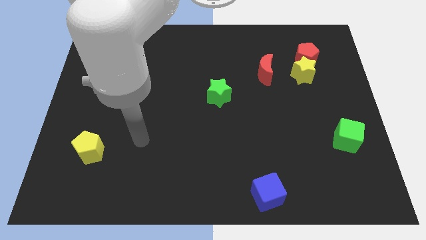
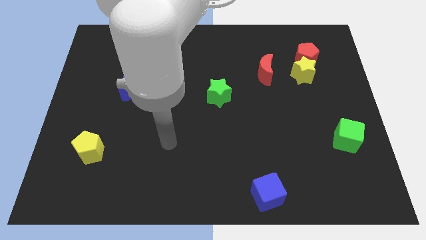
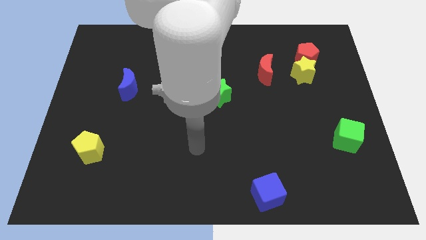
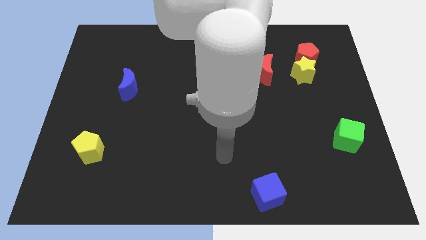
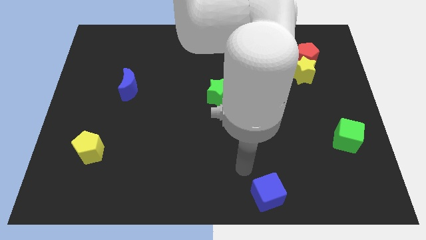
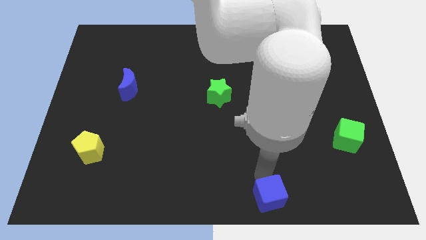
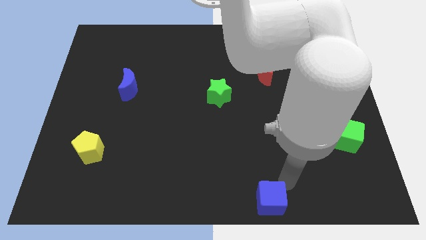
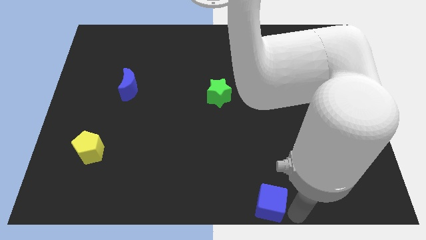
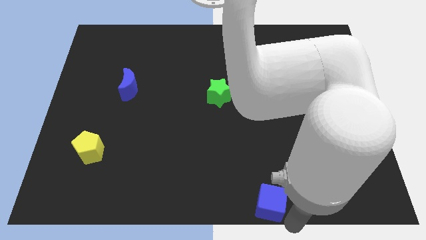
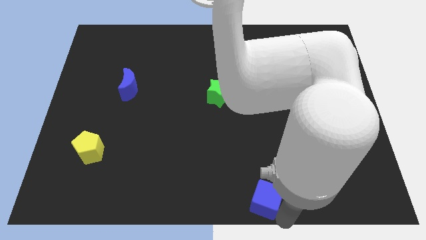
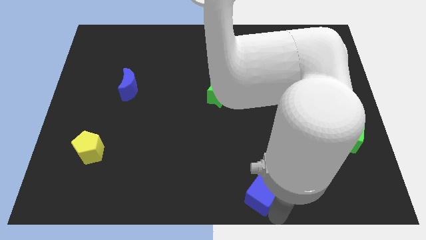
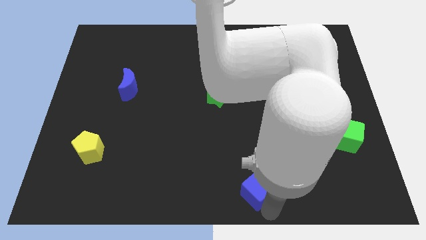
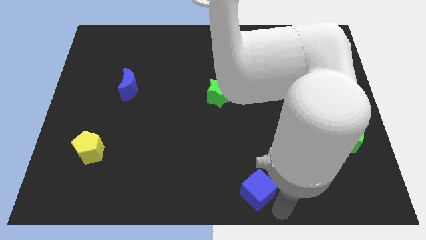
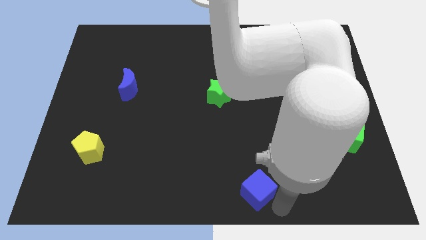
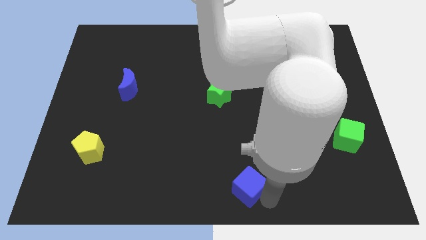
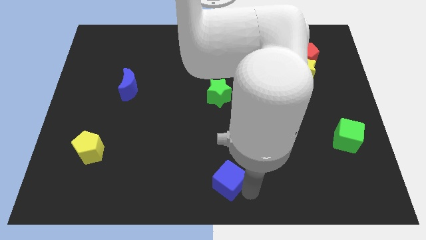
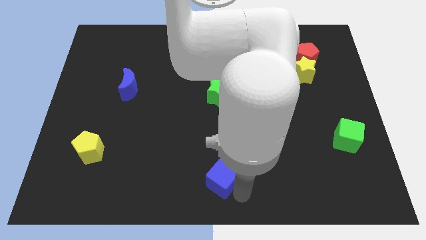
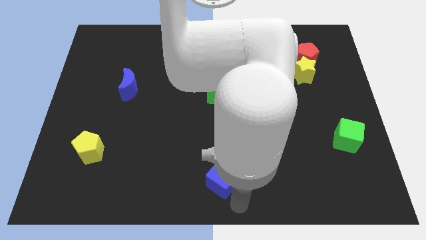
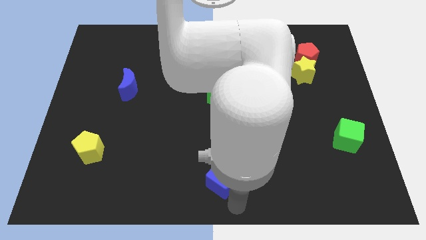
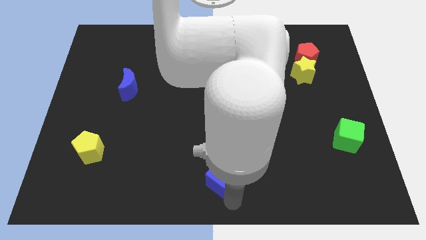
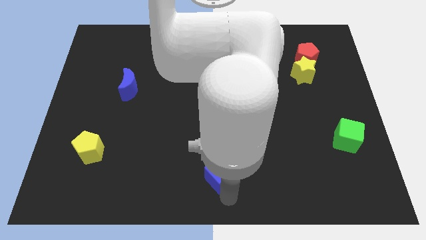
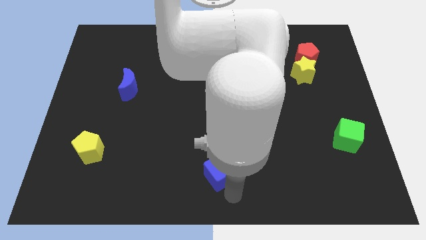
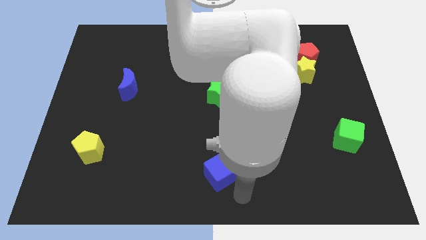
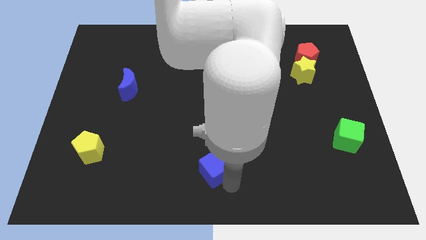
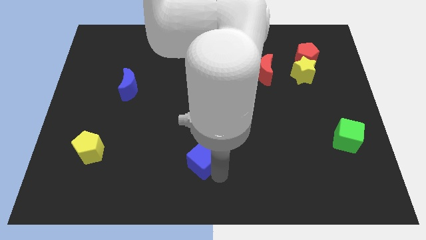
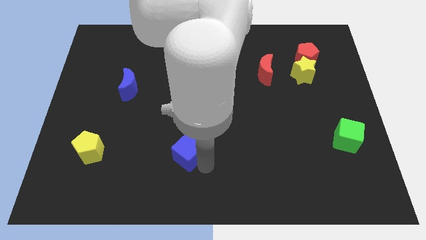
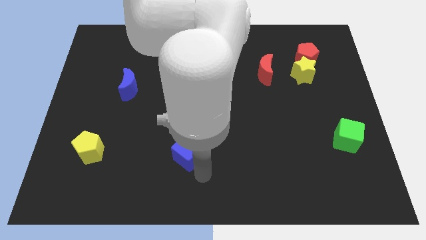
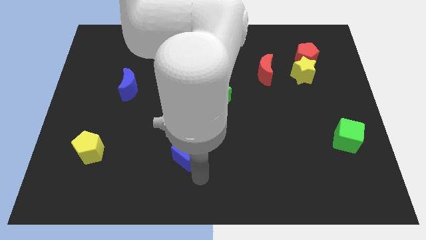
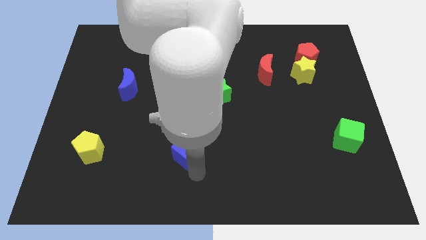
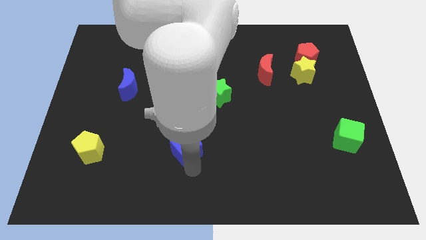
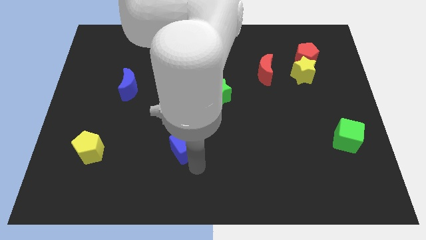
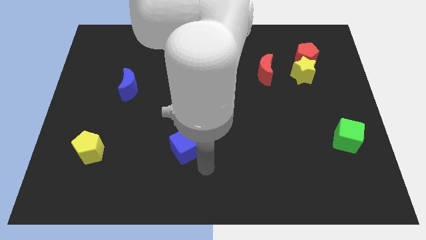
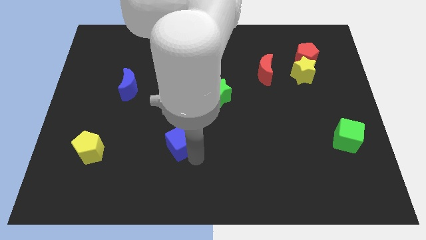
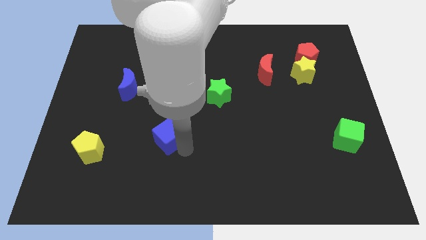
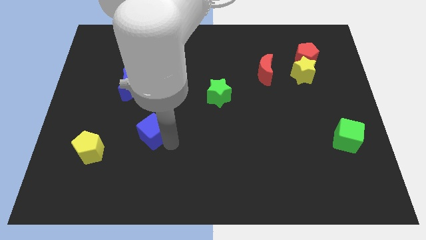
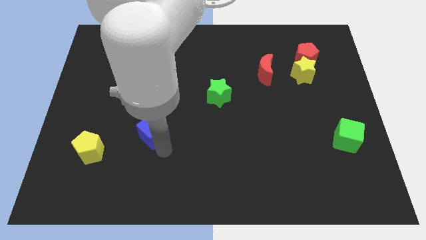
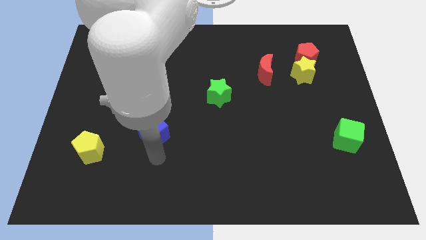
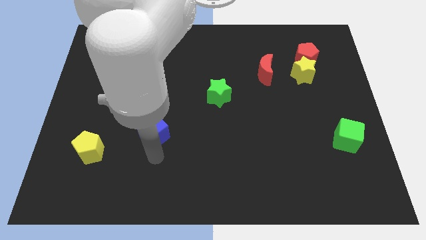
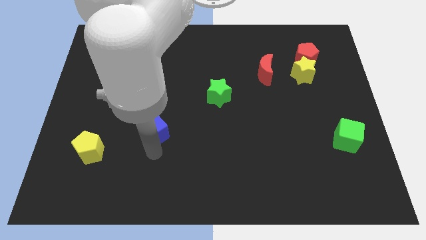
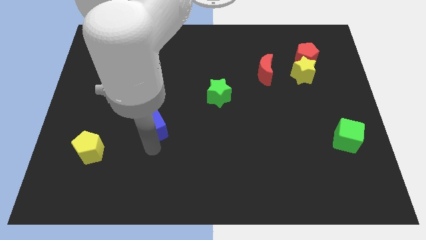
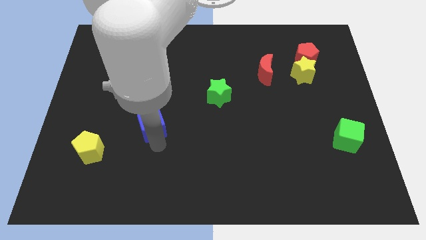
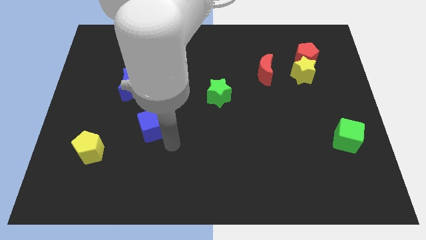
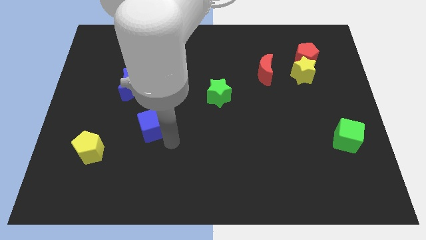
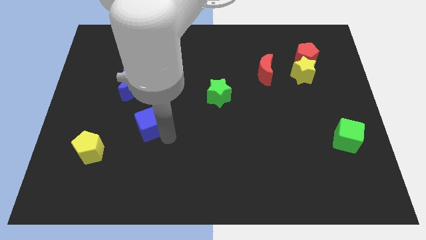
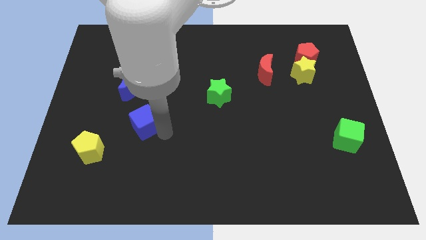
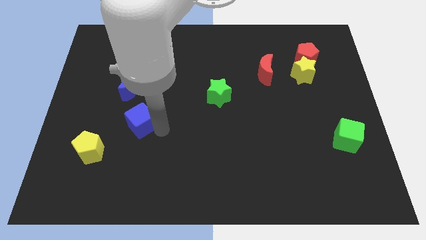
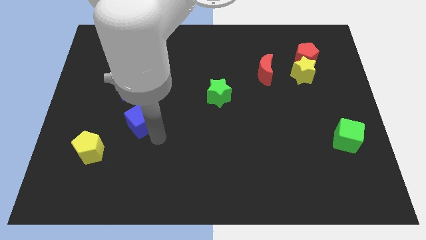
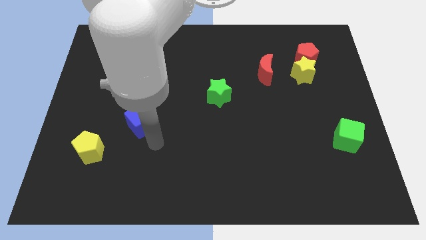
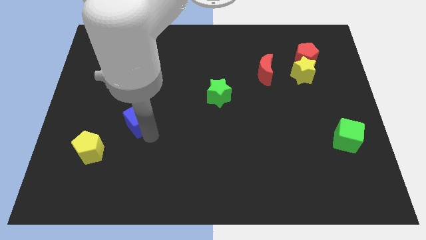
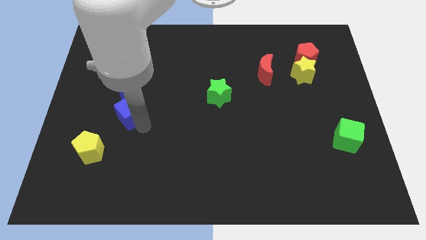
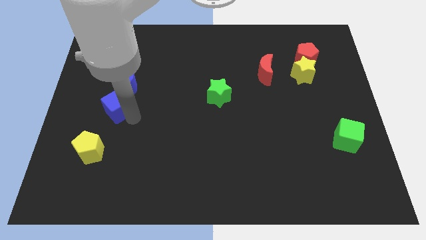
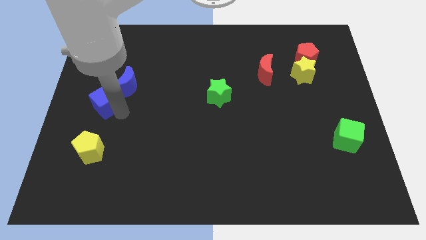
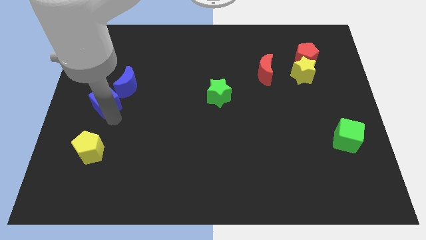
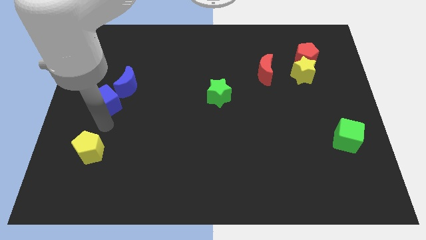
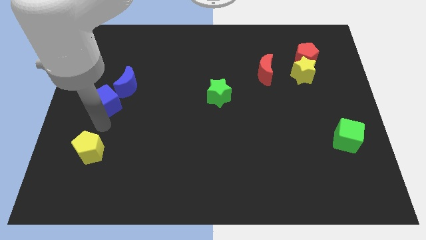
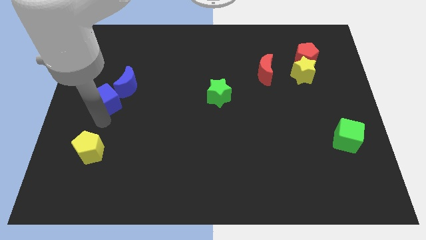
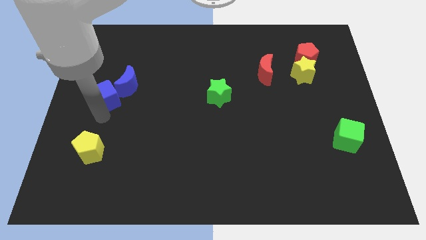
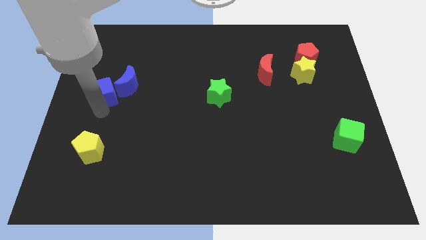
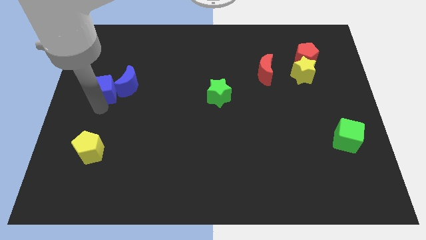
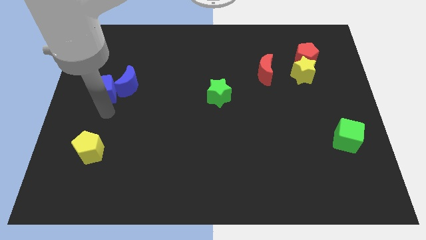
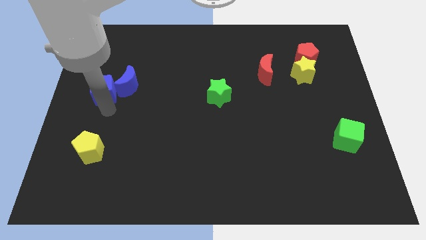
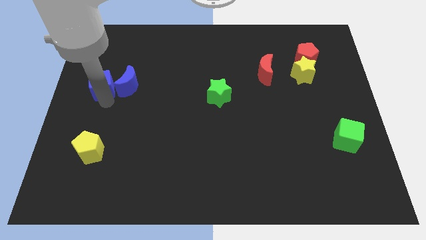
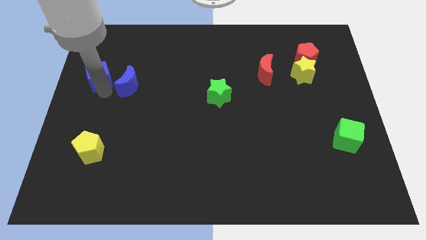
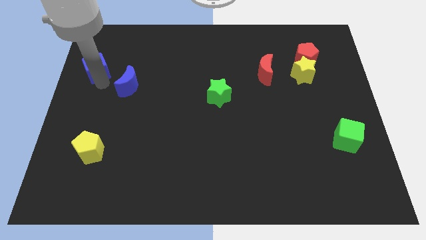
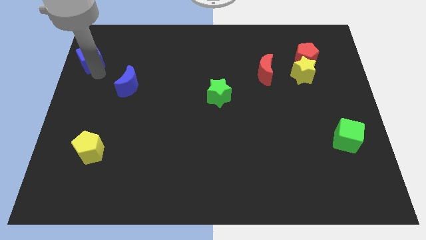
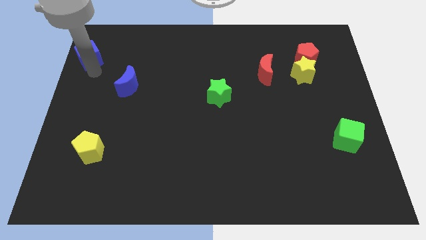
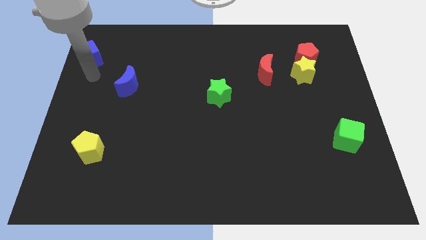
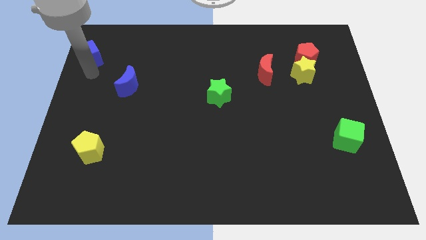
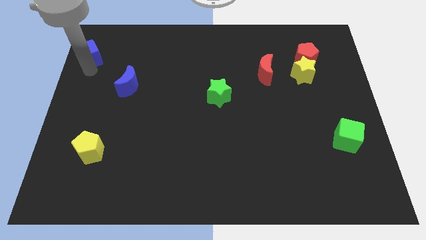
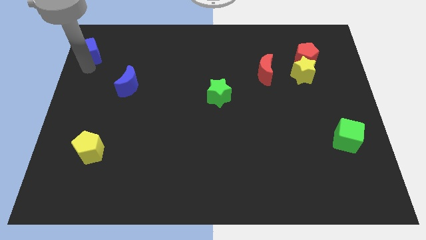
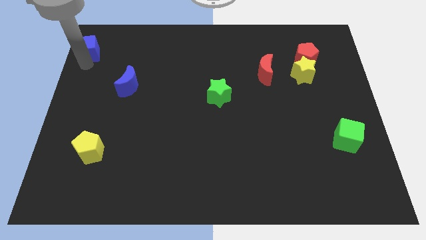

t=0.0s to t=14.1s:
slide the blue cube to the top left corner

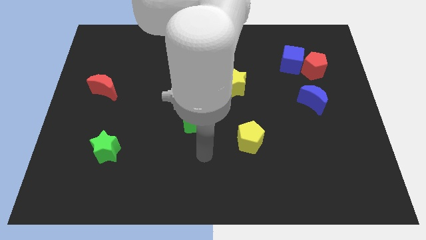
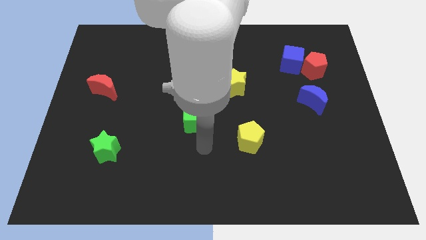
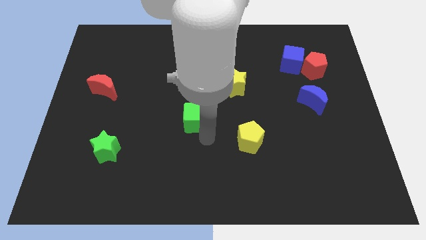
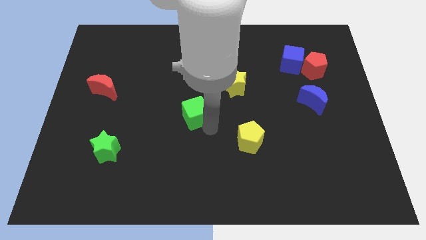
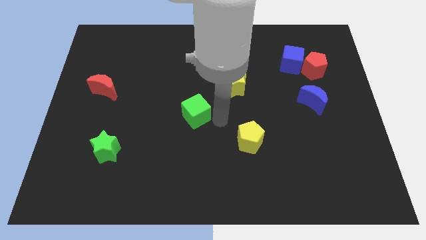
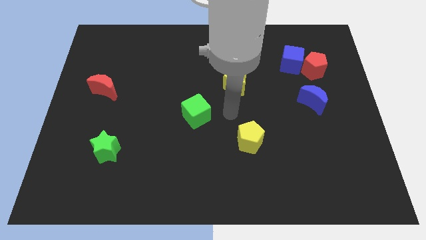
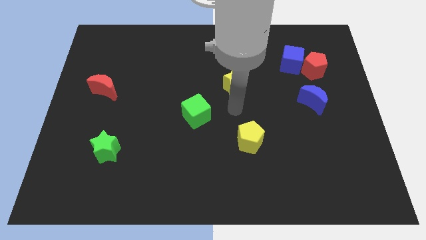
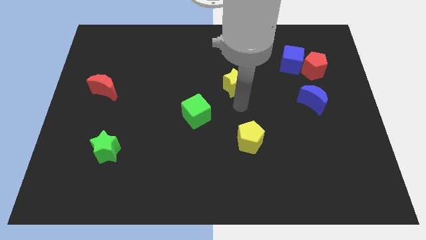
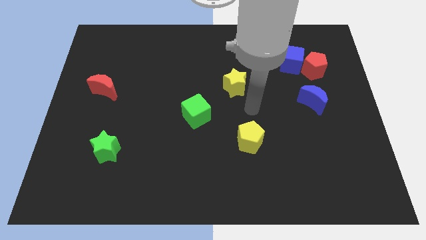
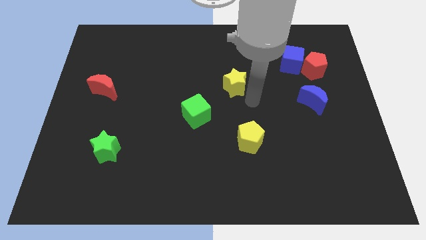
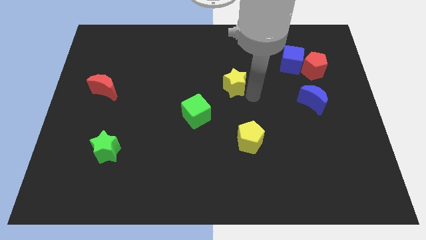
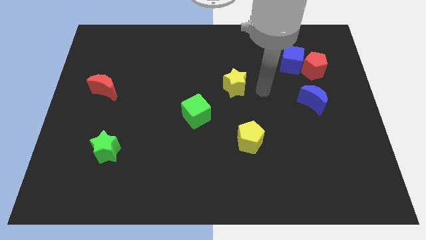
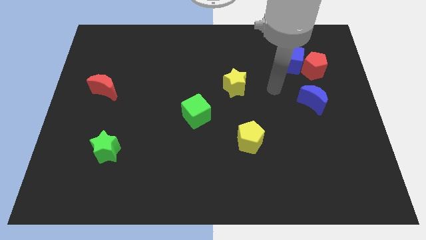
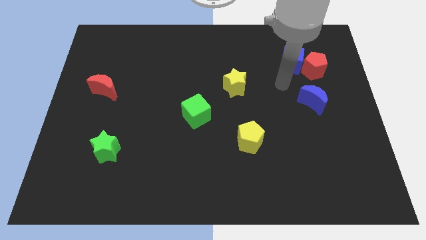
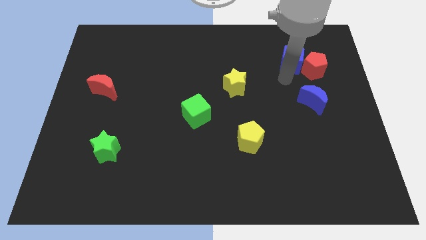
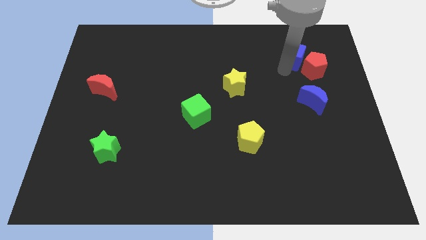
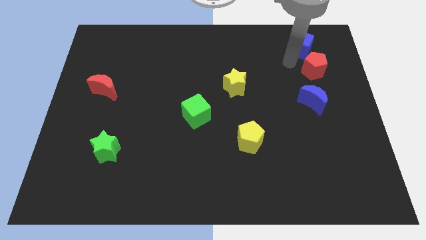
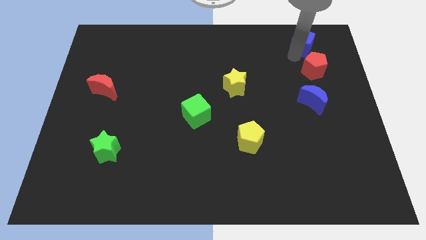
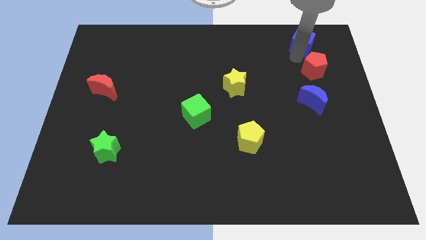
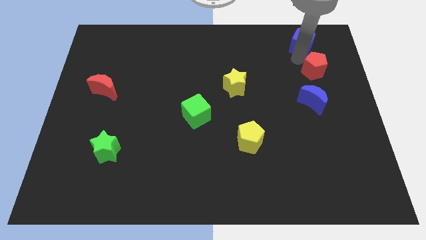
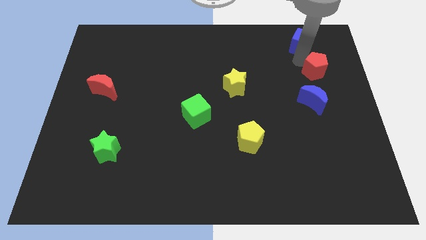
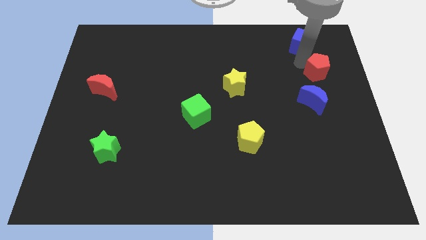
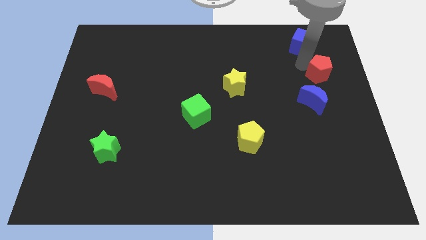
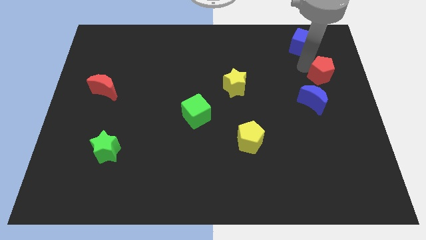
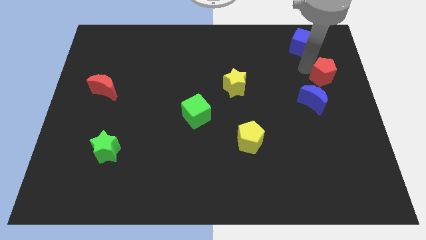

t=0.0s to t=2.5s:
push the red pentagon to the right side of the board
